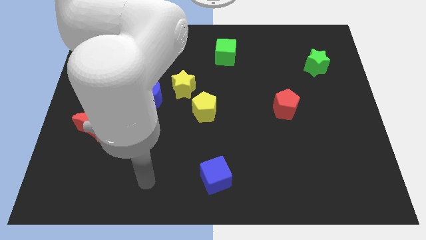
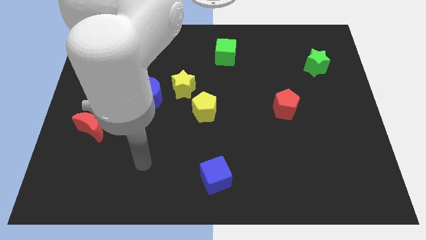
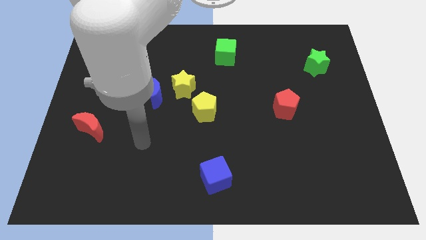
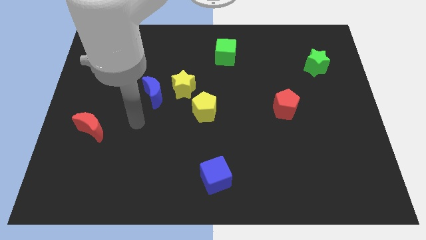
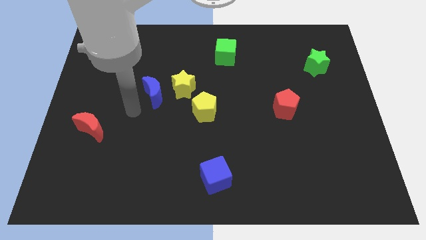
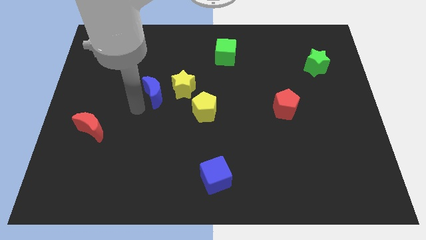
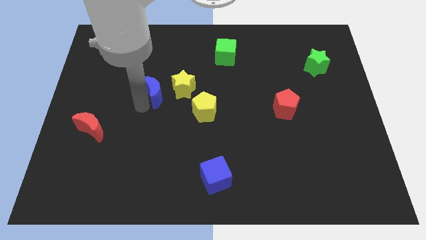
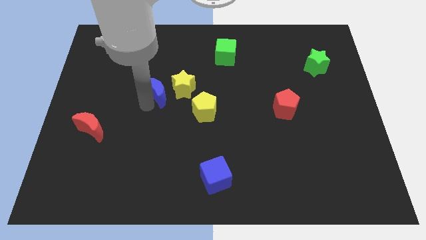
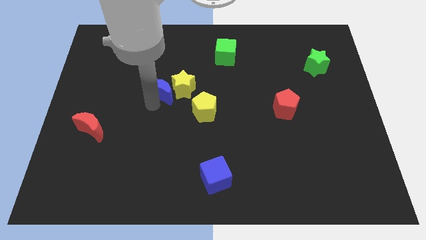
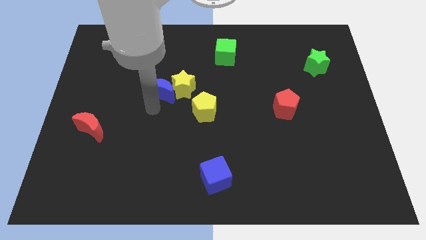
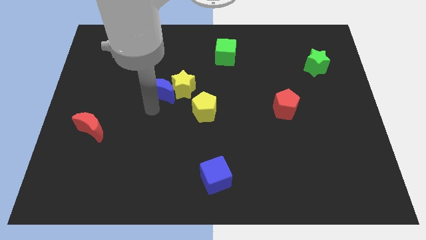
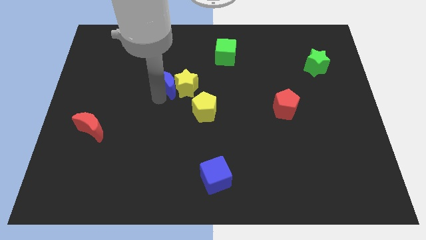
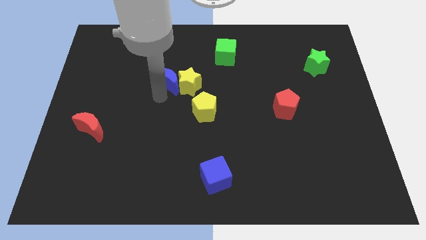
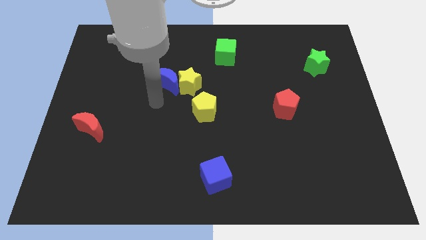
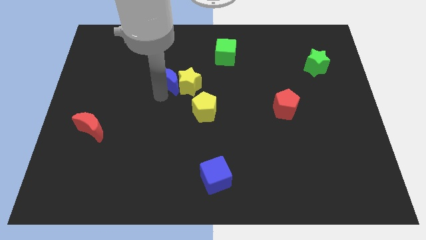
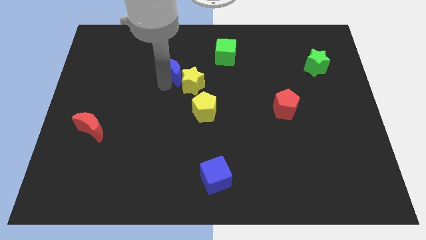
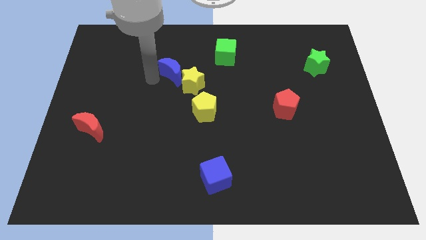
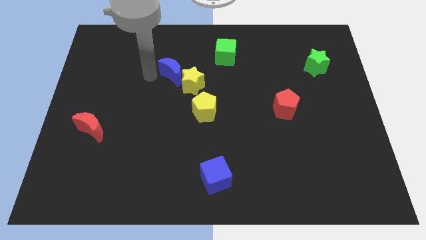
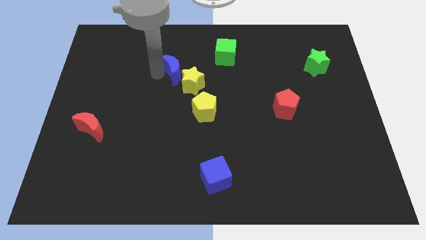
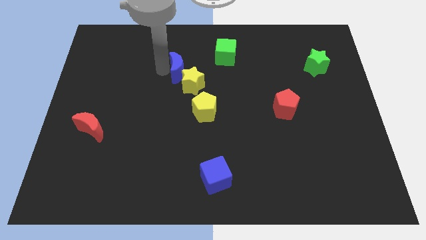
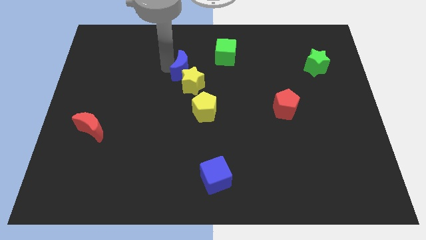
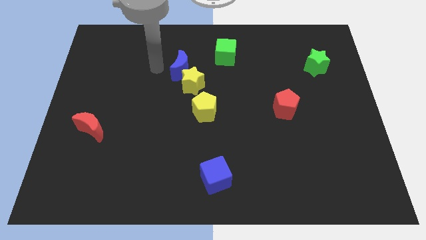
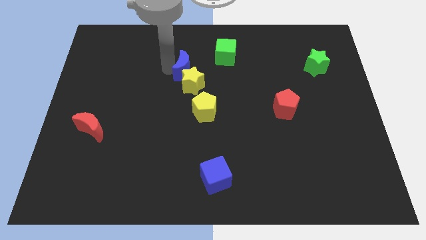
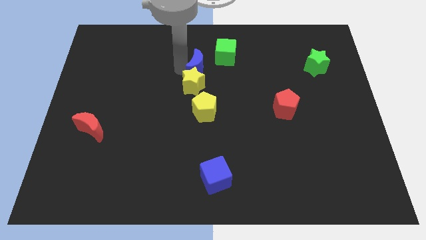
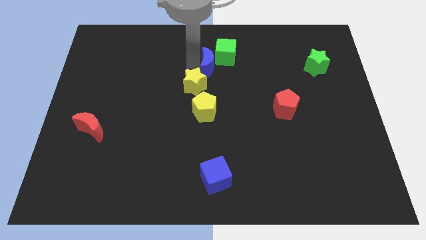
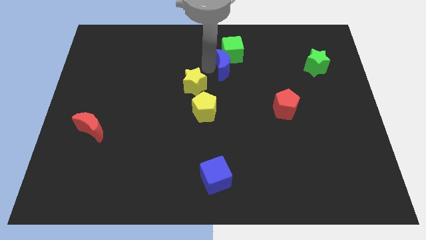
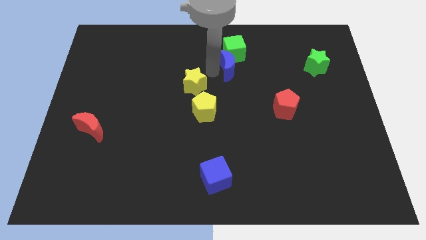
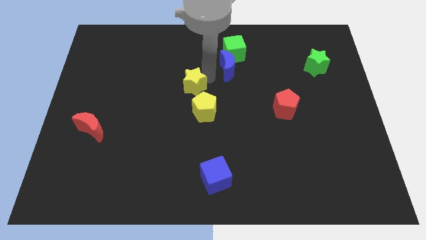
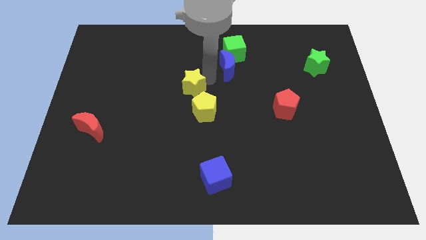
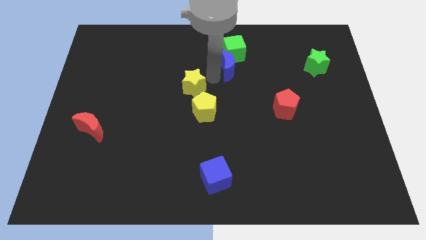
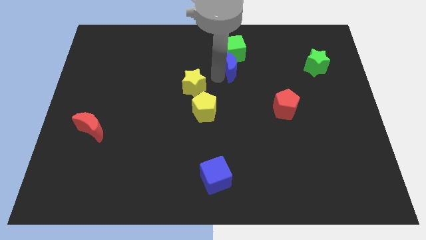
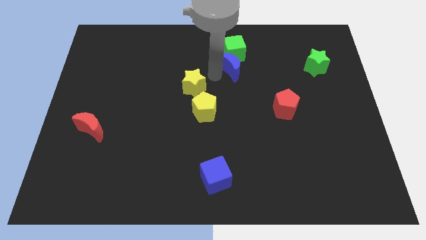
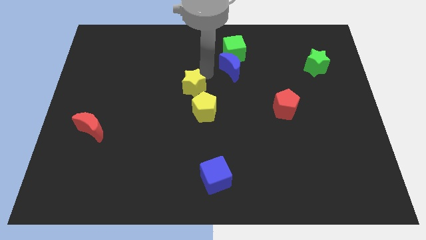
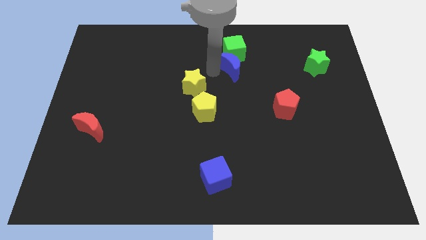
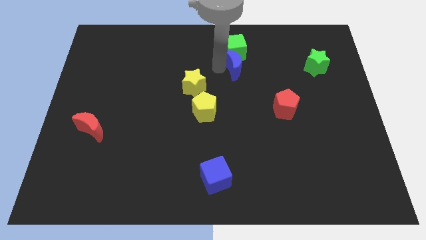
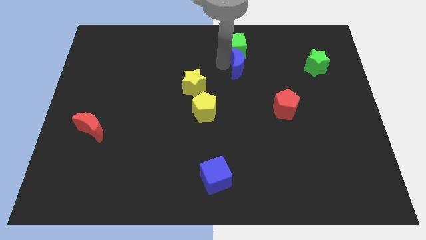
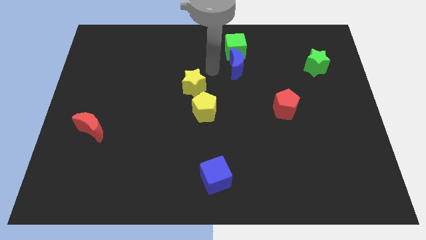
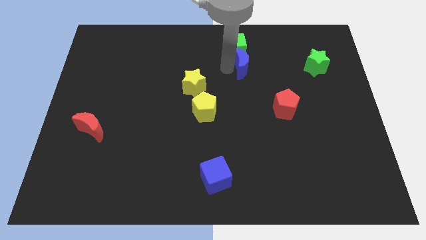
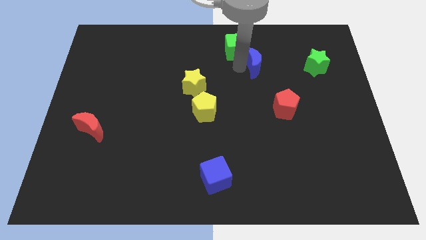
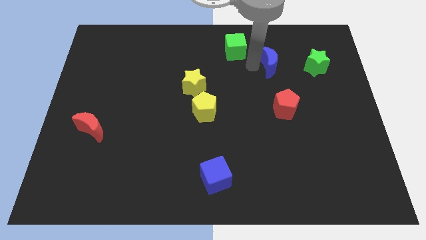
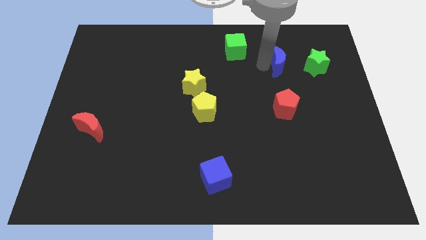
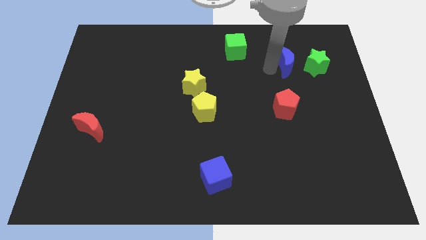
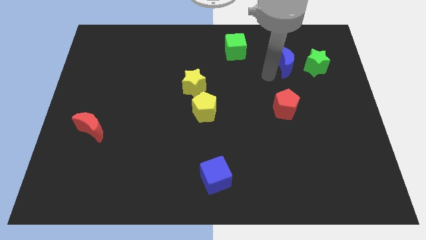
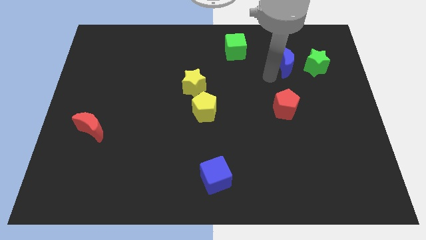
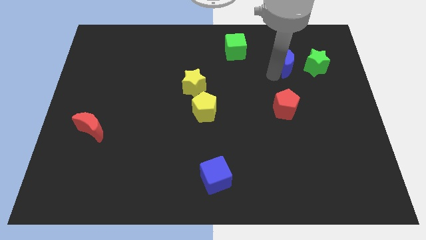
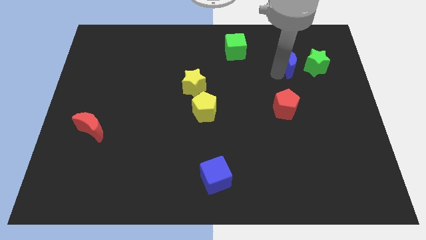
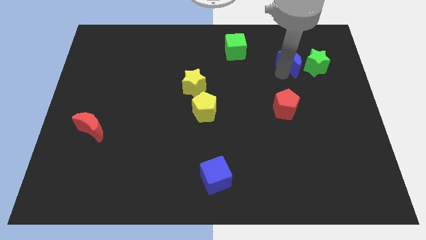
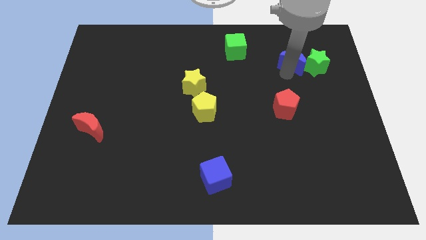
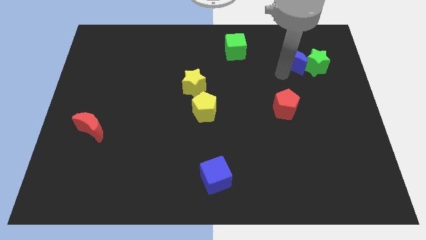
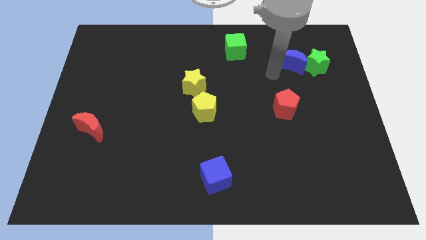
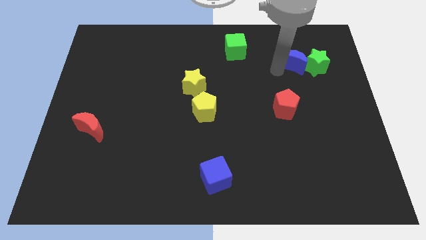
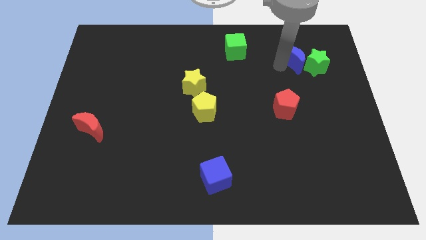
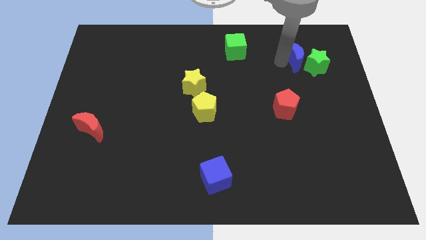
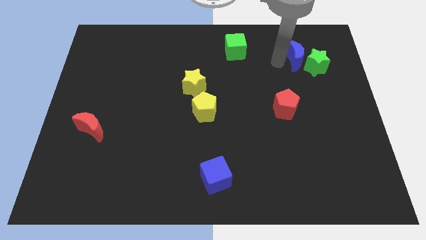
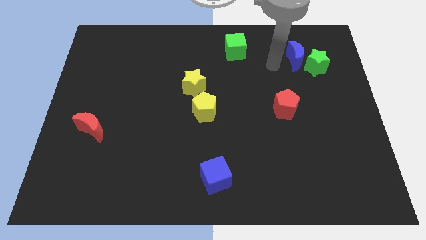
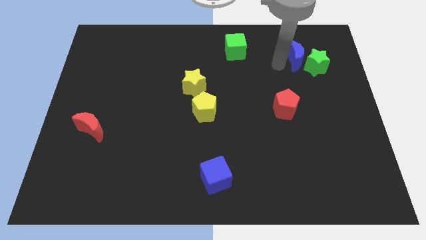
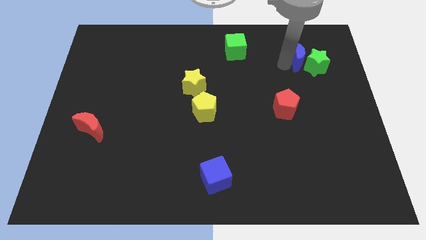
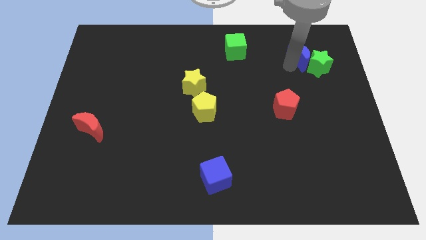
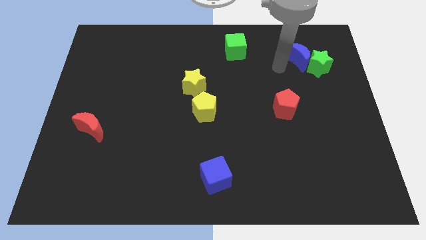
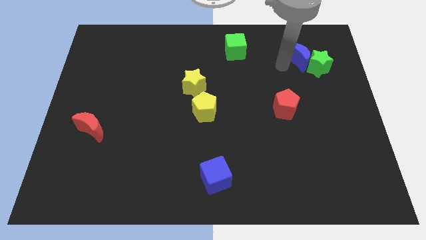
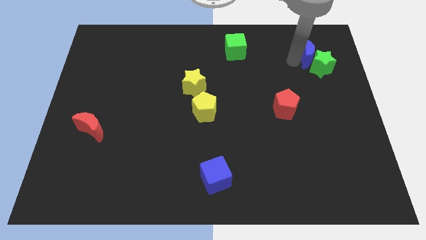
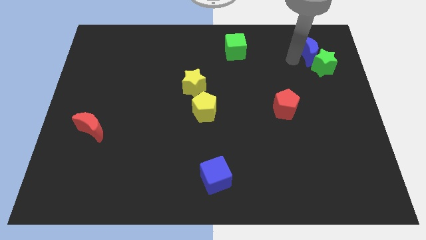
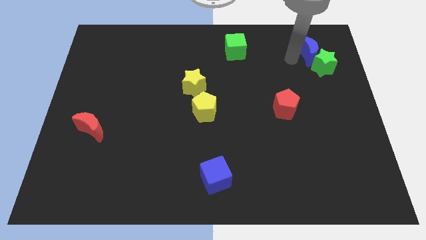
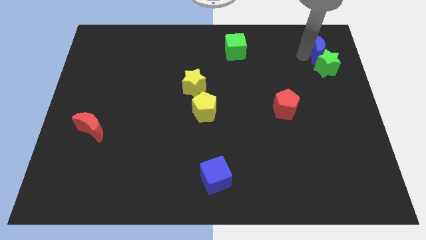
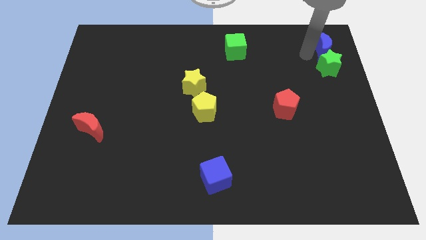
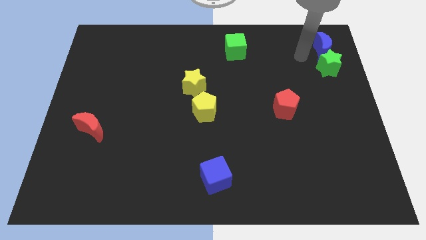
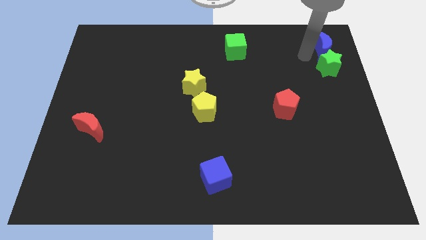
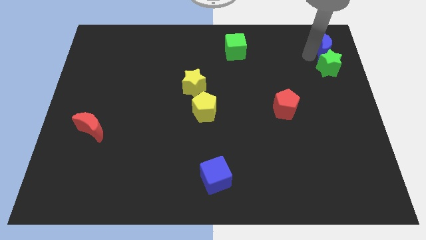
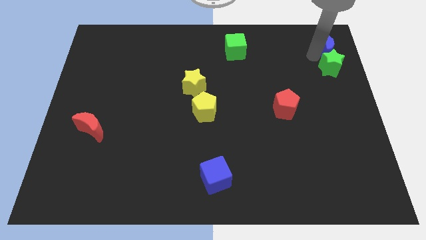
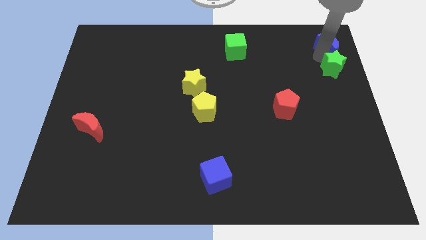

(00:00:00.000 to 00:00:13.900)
put the blue moon to the top right
